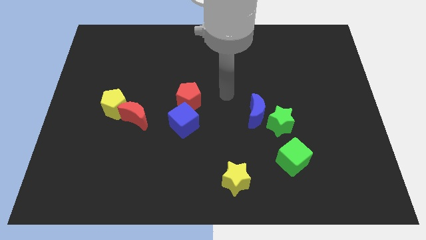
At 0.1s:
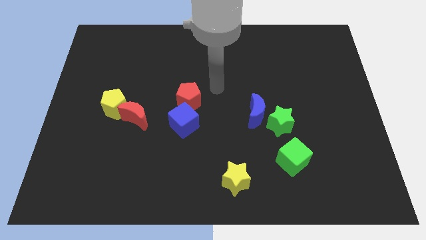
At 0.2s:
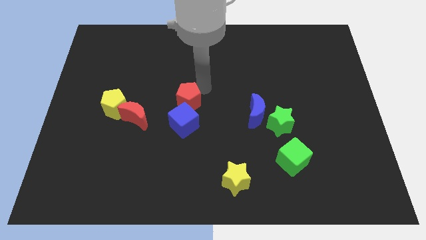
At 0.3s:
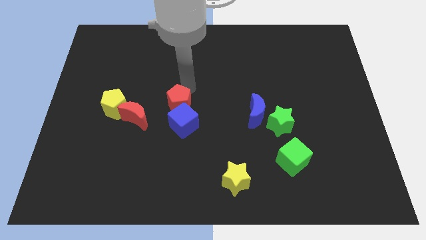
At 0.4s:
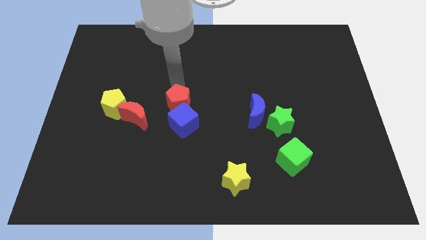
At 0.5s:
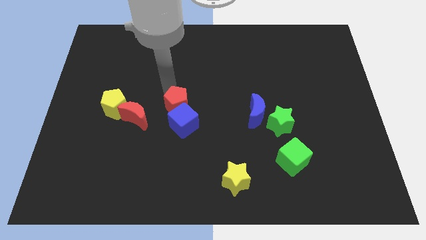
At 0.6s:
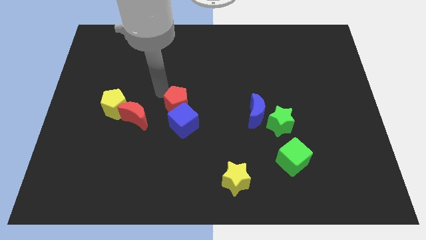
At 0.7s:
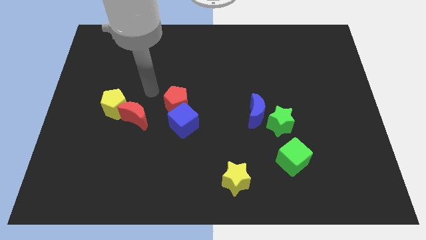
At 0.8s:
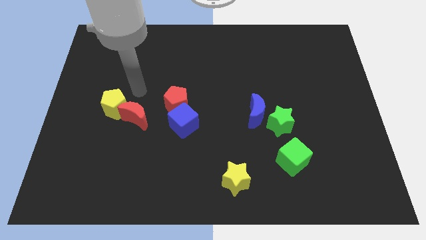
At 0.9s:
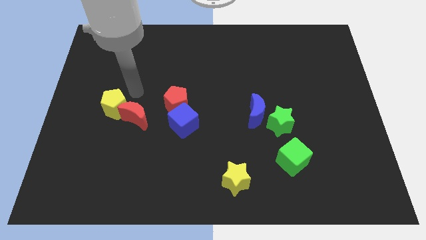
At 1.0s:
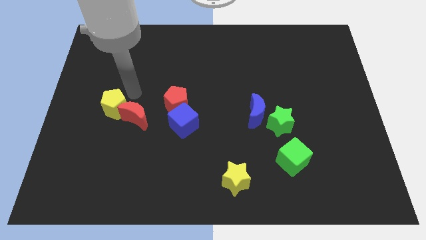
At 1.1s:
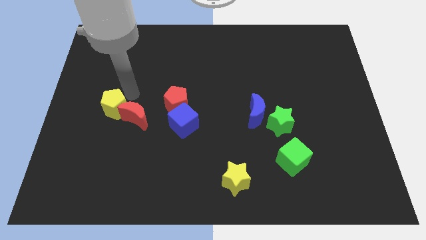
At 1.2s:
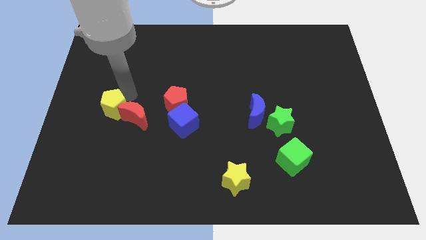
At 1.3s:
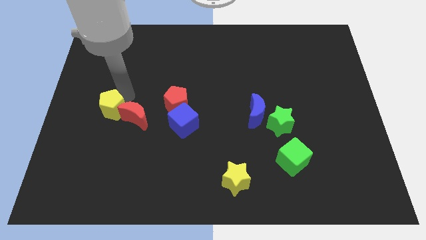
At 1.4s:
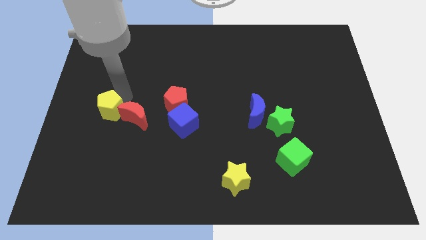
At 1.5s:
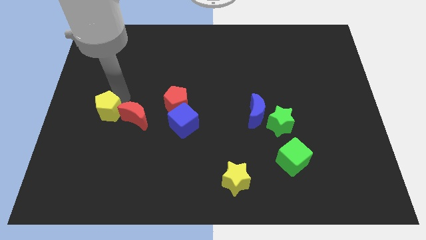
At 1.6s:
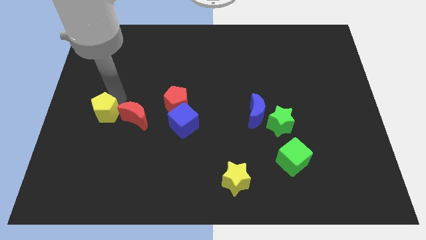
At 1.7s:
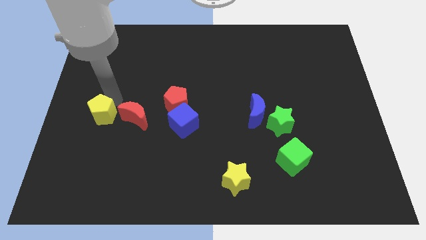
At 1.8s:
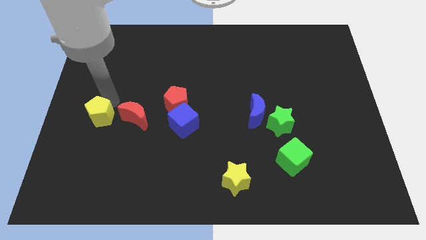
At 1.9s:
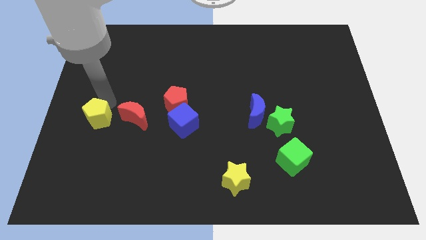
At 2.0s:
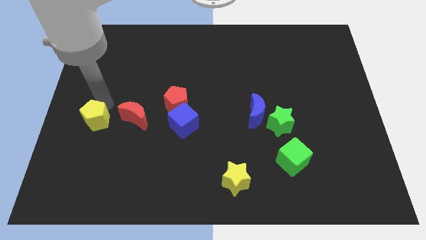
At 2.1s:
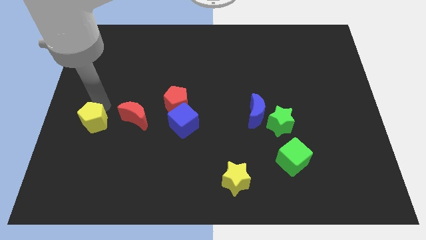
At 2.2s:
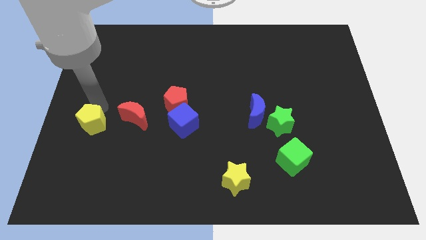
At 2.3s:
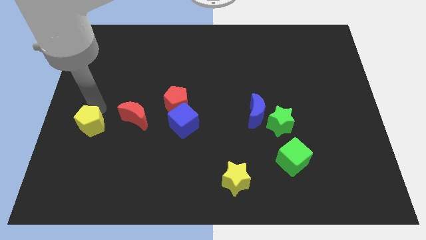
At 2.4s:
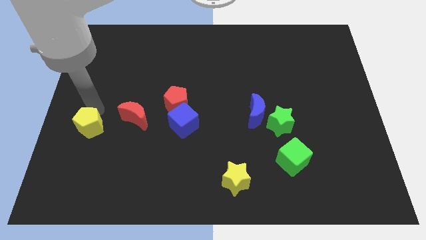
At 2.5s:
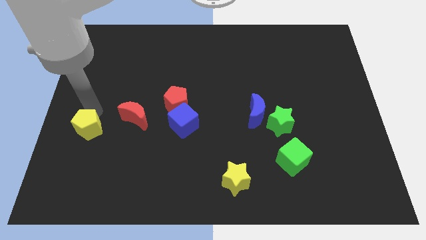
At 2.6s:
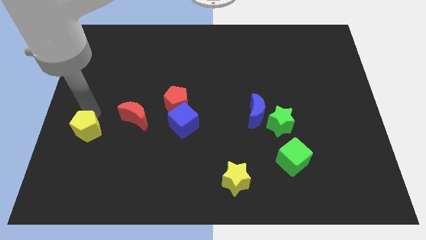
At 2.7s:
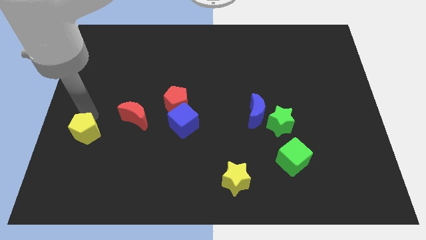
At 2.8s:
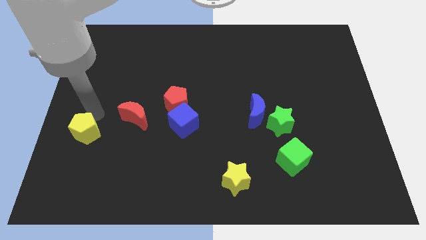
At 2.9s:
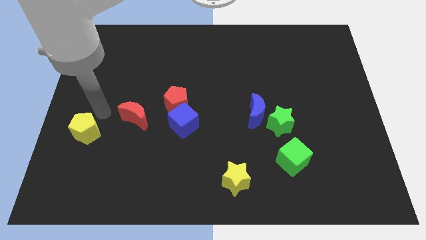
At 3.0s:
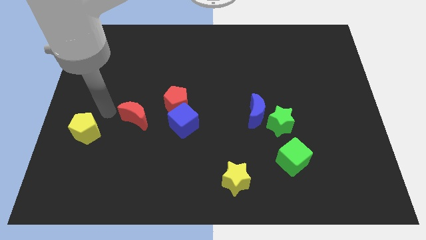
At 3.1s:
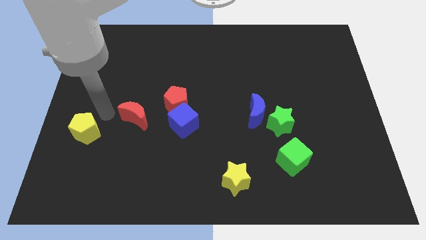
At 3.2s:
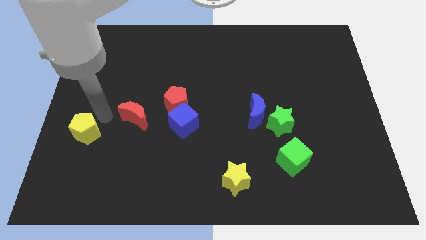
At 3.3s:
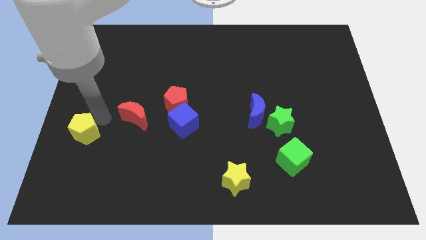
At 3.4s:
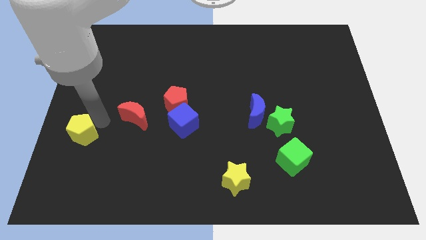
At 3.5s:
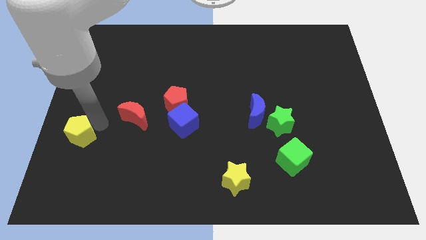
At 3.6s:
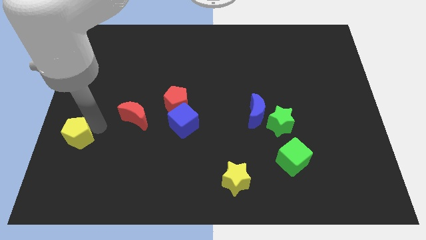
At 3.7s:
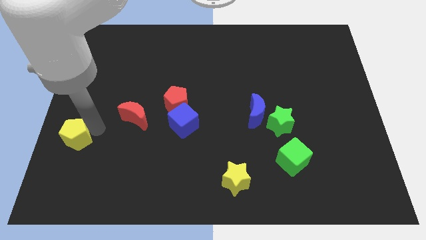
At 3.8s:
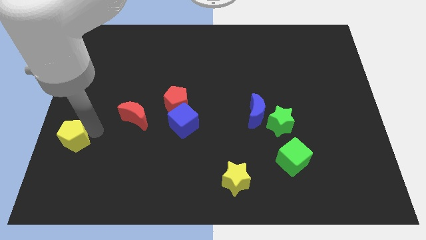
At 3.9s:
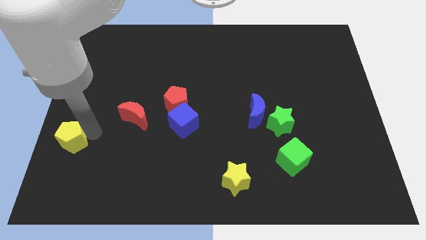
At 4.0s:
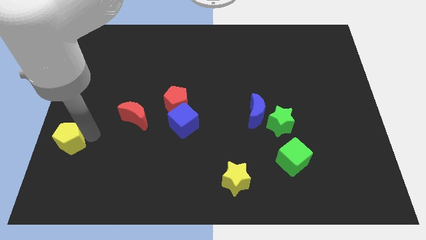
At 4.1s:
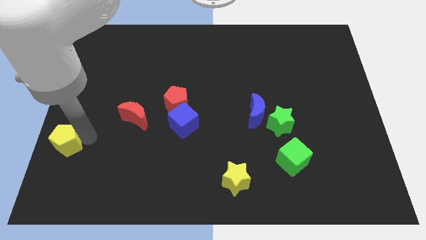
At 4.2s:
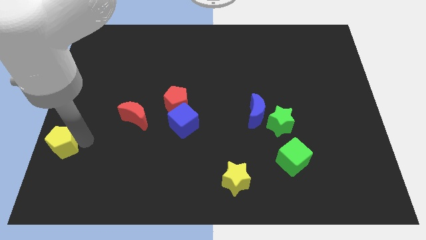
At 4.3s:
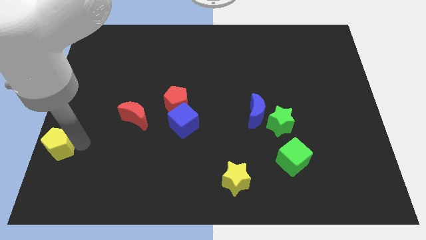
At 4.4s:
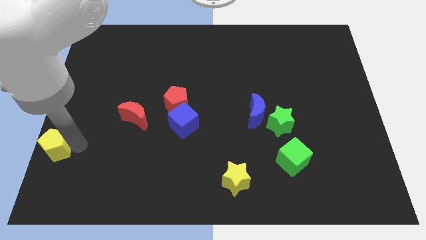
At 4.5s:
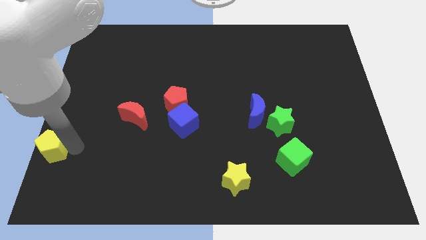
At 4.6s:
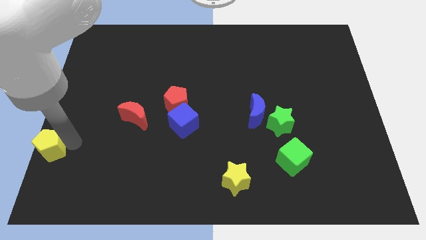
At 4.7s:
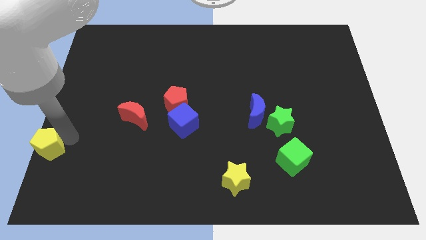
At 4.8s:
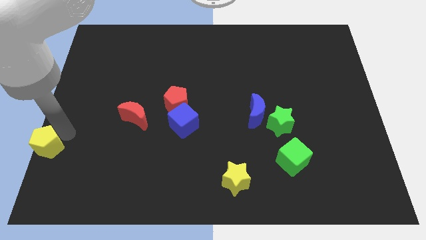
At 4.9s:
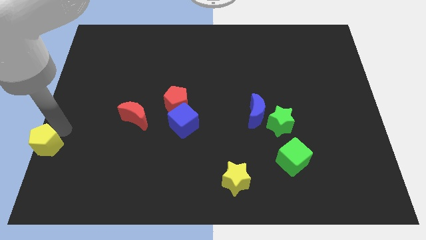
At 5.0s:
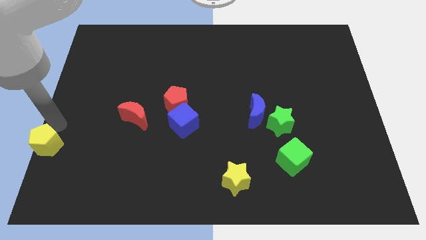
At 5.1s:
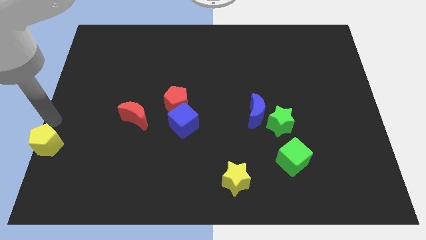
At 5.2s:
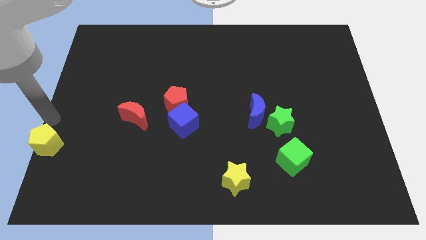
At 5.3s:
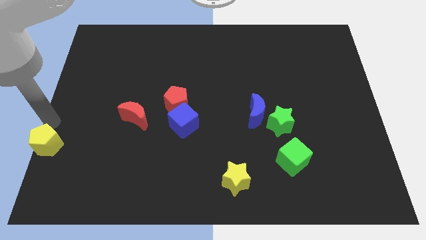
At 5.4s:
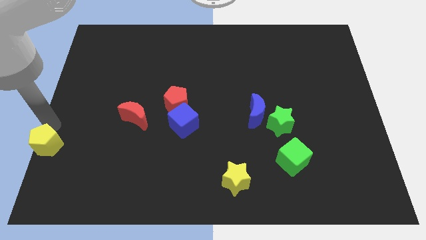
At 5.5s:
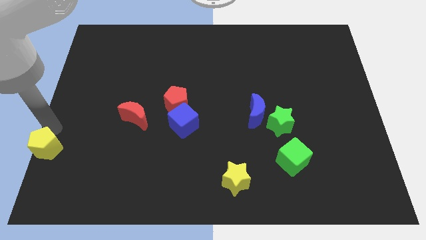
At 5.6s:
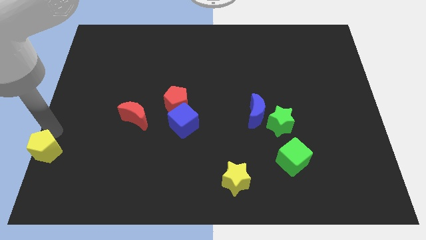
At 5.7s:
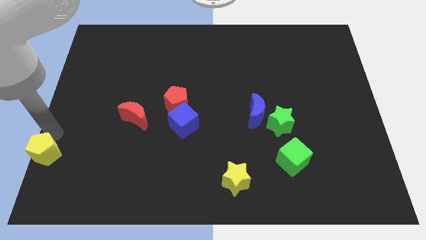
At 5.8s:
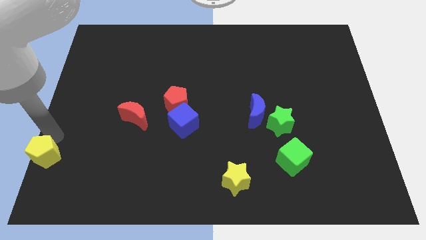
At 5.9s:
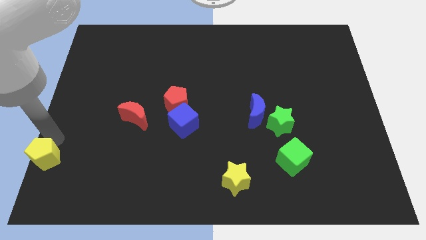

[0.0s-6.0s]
put the yellow pentagon to the lower left corner

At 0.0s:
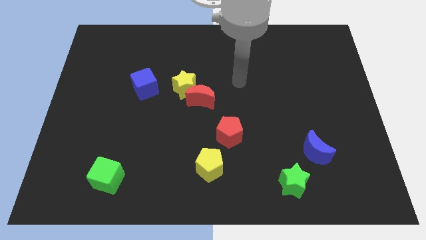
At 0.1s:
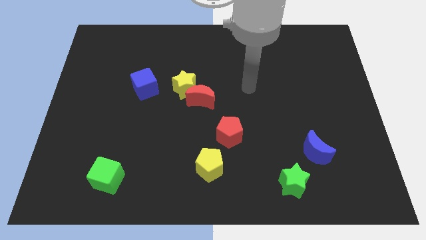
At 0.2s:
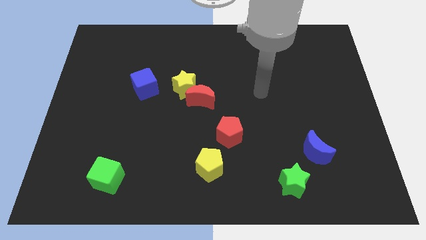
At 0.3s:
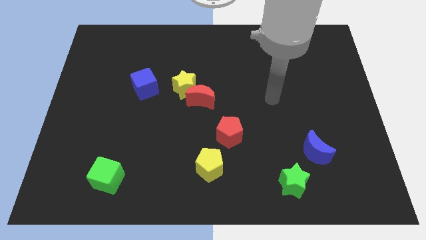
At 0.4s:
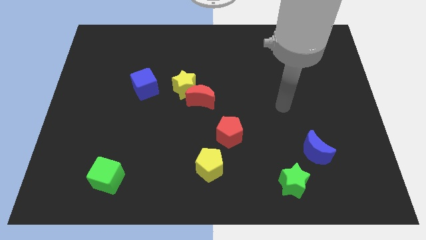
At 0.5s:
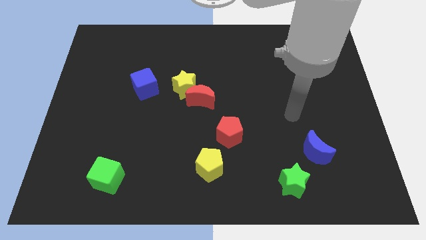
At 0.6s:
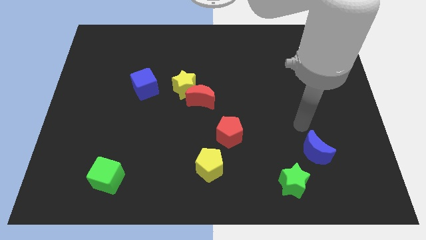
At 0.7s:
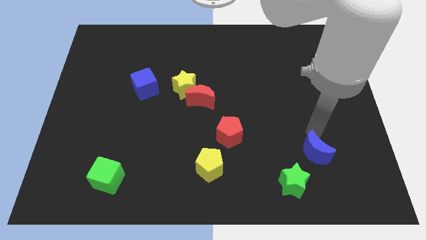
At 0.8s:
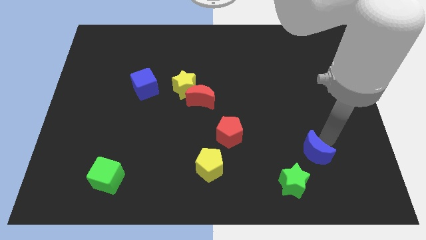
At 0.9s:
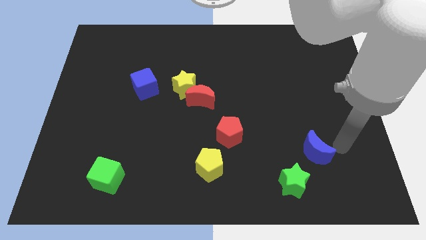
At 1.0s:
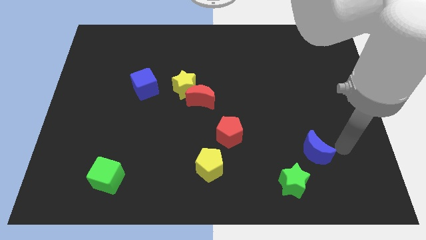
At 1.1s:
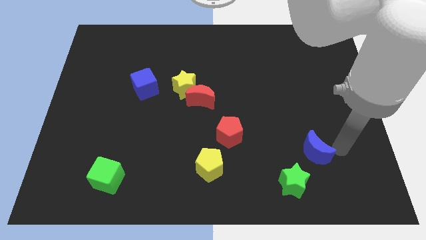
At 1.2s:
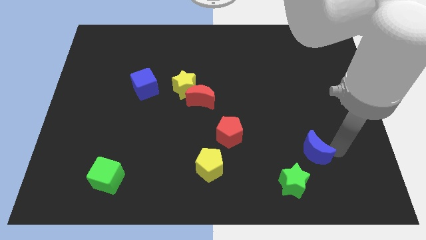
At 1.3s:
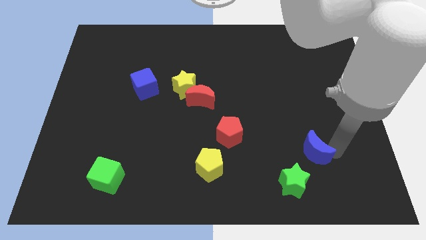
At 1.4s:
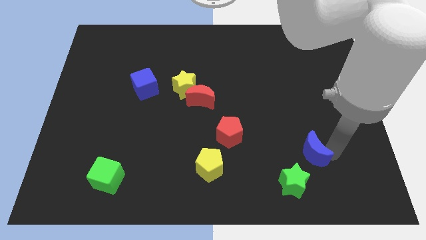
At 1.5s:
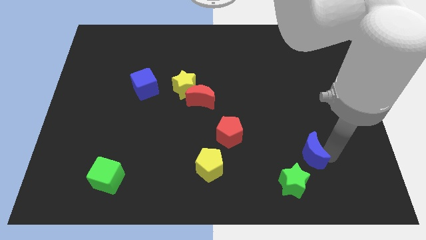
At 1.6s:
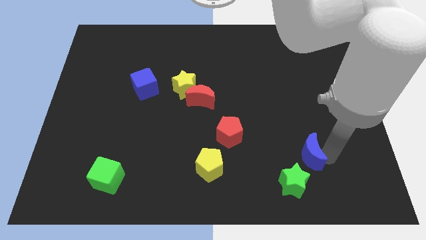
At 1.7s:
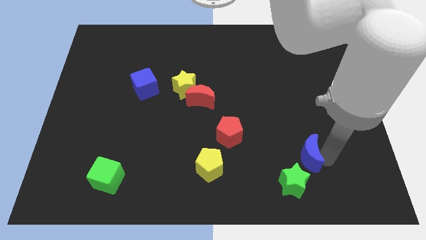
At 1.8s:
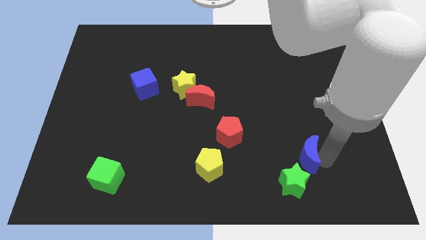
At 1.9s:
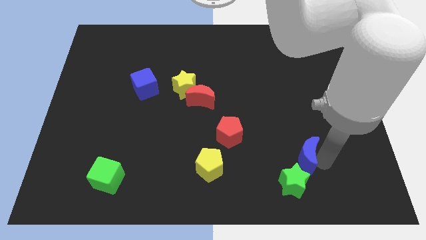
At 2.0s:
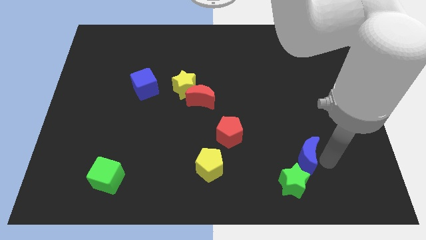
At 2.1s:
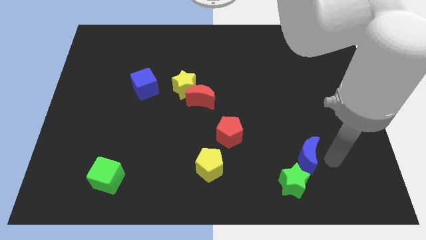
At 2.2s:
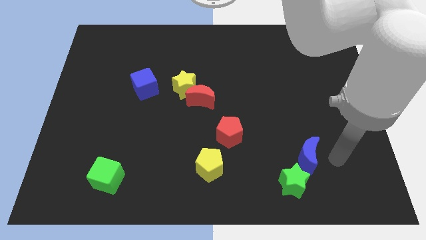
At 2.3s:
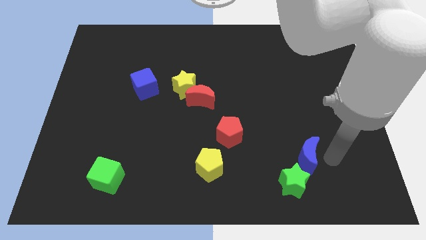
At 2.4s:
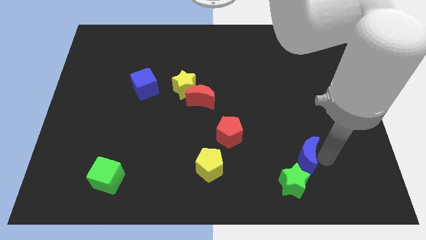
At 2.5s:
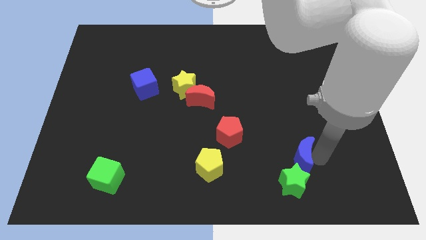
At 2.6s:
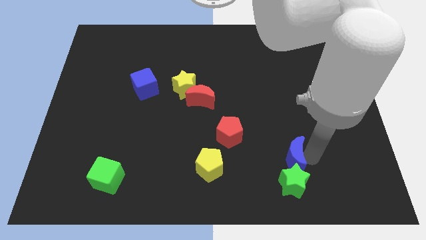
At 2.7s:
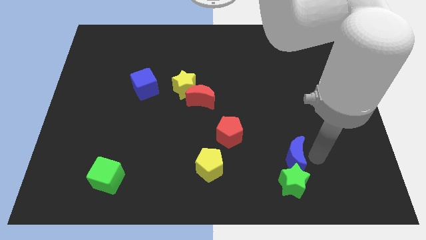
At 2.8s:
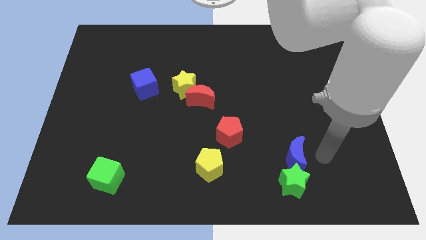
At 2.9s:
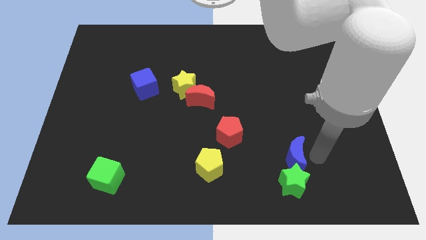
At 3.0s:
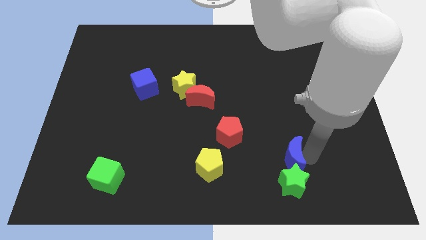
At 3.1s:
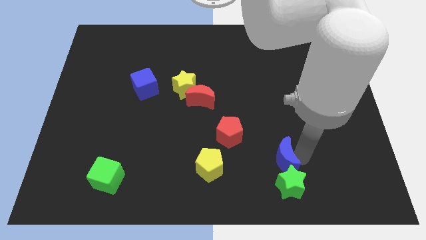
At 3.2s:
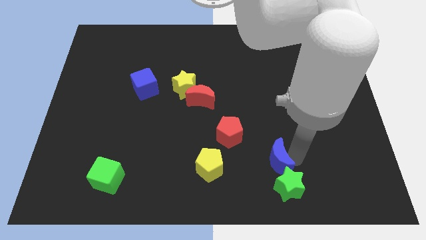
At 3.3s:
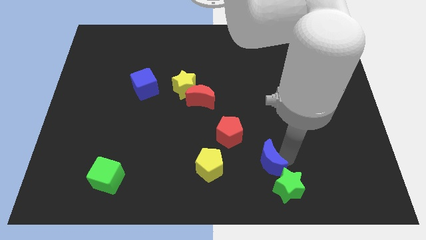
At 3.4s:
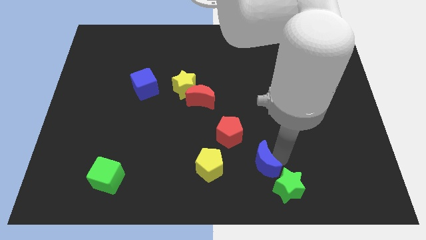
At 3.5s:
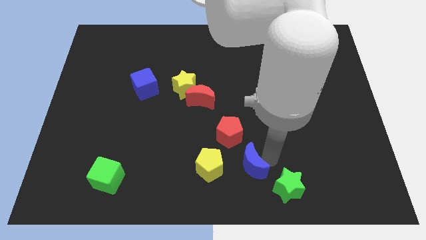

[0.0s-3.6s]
push the blue moon to the bottom
